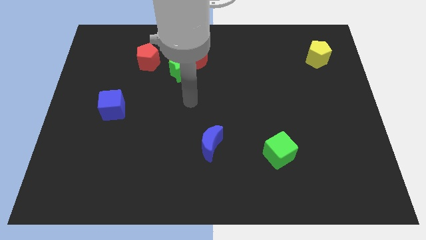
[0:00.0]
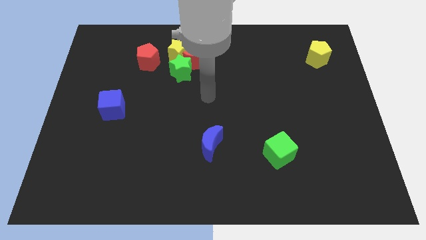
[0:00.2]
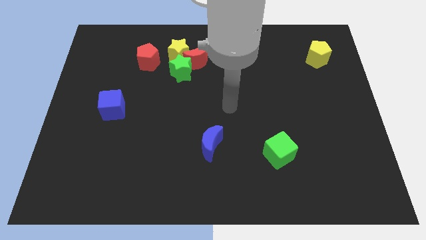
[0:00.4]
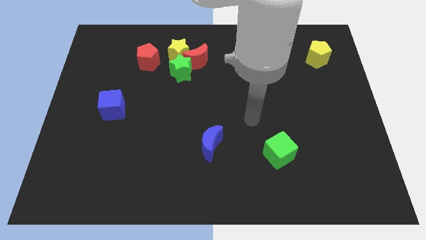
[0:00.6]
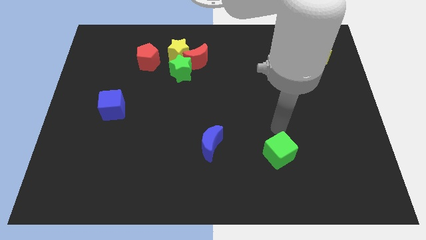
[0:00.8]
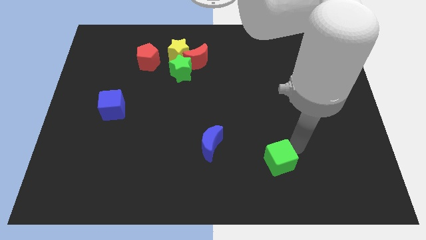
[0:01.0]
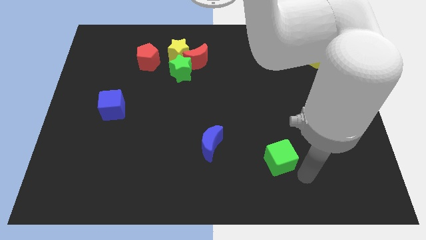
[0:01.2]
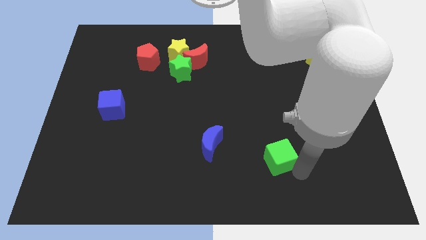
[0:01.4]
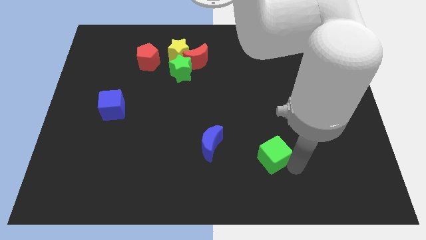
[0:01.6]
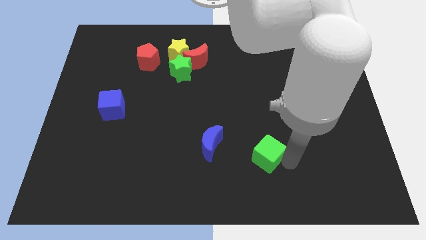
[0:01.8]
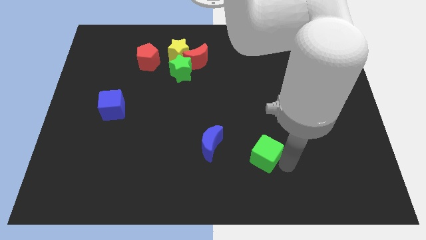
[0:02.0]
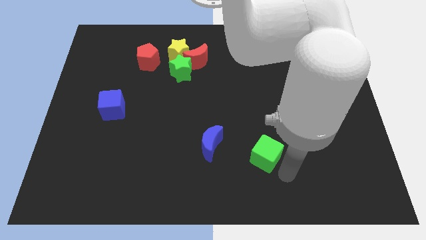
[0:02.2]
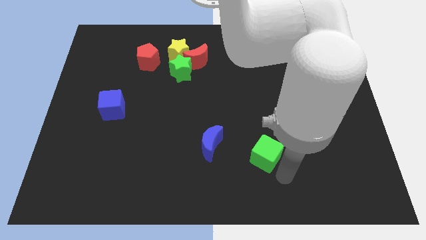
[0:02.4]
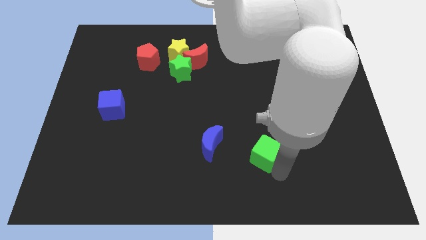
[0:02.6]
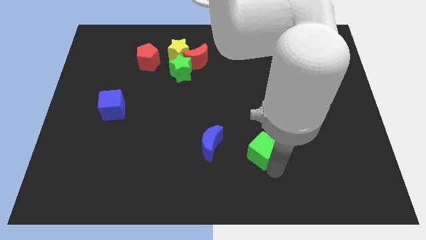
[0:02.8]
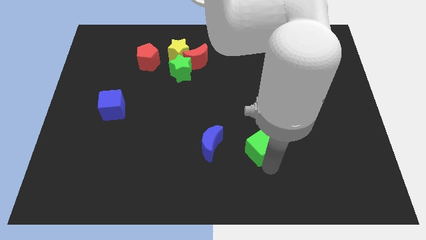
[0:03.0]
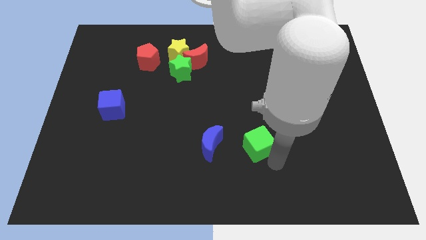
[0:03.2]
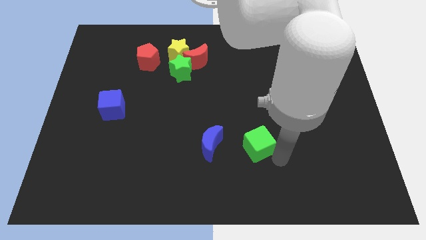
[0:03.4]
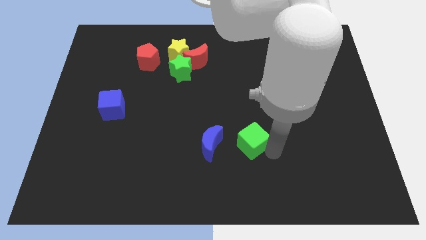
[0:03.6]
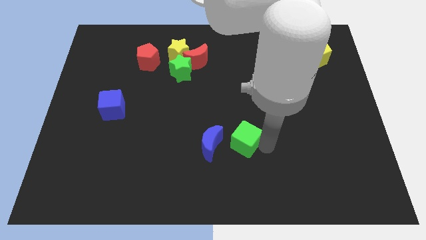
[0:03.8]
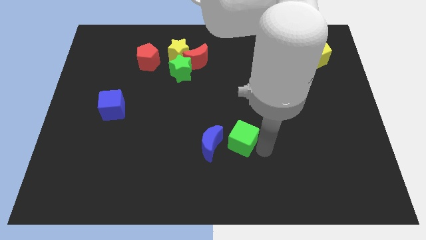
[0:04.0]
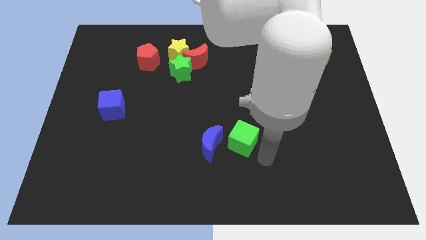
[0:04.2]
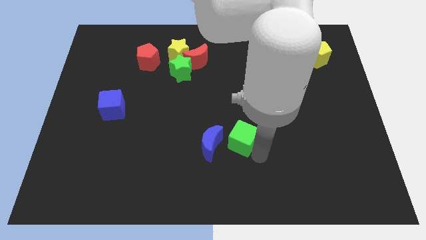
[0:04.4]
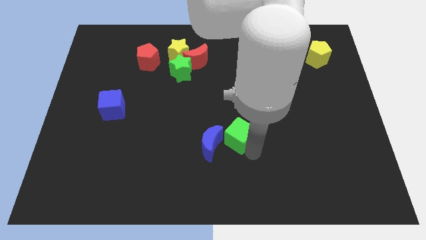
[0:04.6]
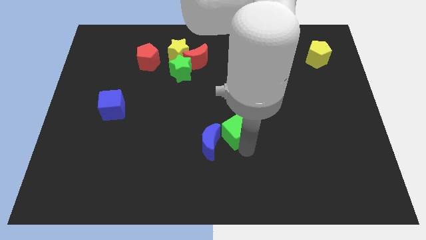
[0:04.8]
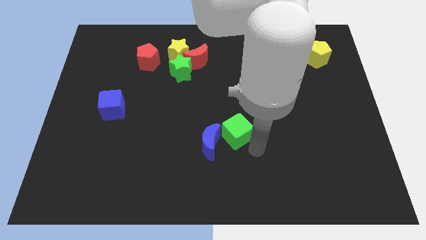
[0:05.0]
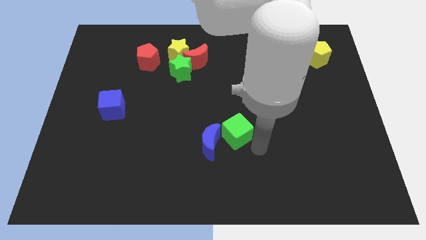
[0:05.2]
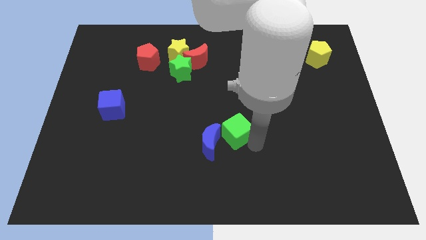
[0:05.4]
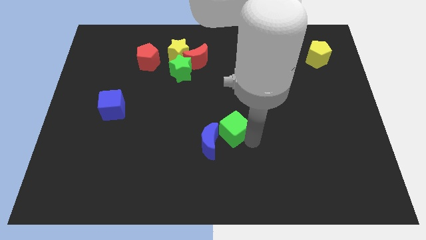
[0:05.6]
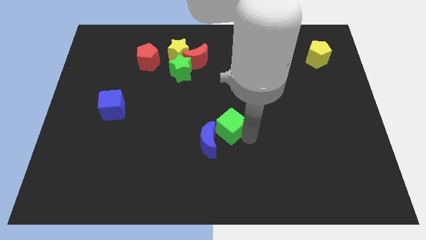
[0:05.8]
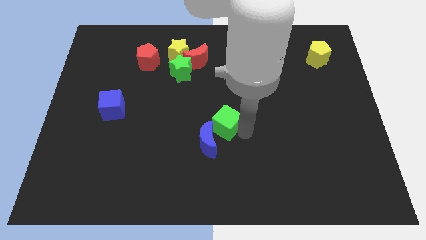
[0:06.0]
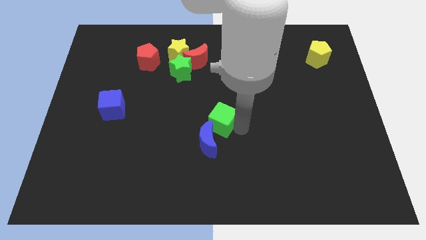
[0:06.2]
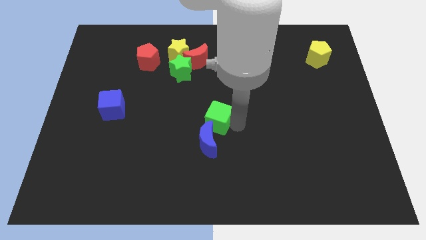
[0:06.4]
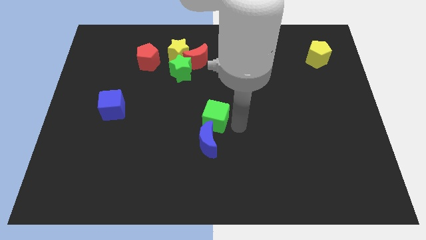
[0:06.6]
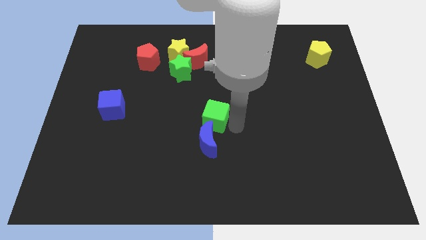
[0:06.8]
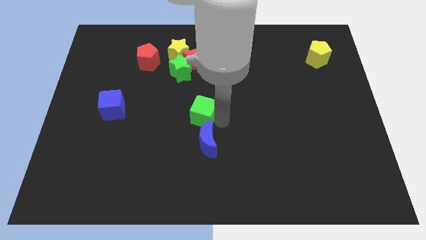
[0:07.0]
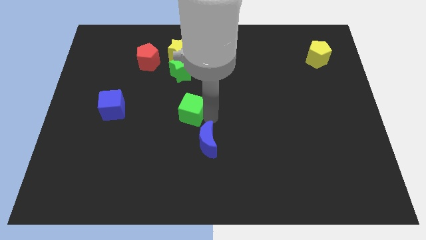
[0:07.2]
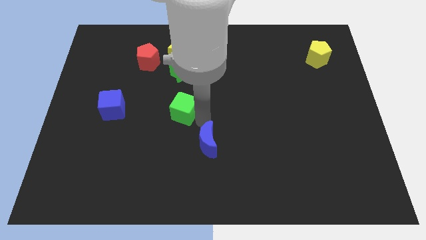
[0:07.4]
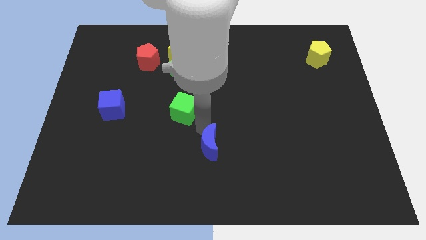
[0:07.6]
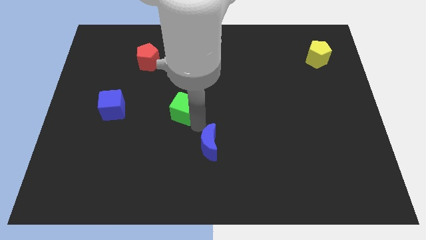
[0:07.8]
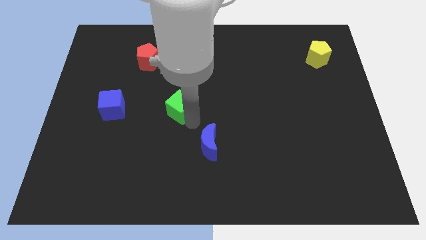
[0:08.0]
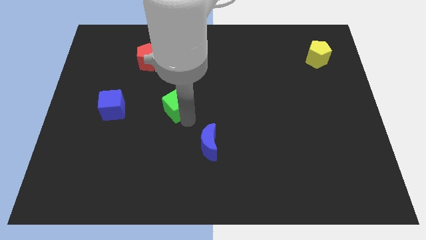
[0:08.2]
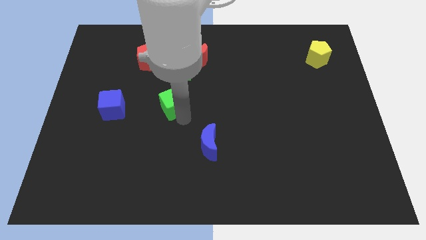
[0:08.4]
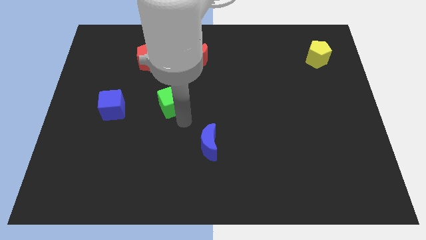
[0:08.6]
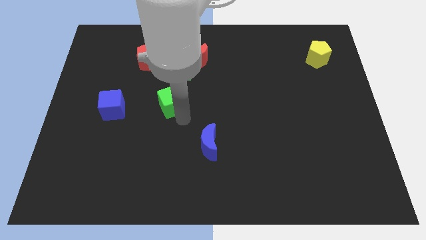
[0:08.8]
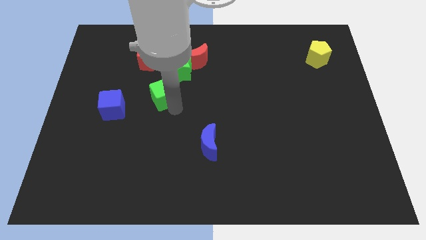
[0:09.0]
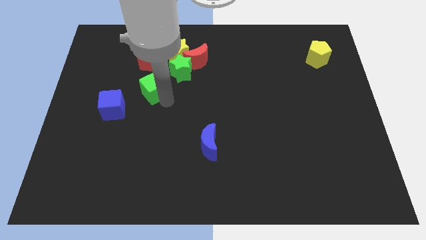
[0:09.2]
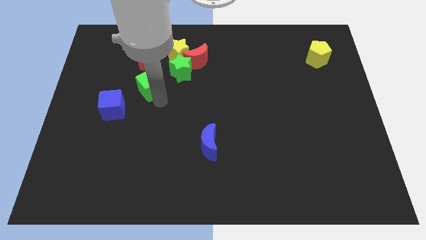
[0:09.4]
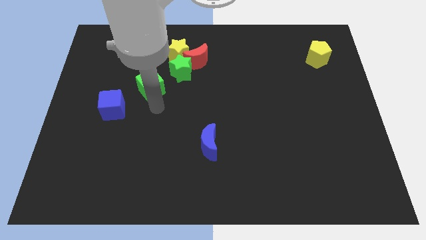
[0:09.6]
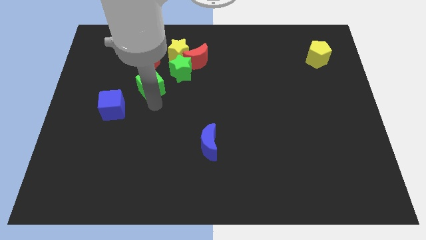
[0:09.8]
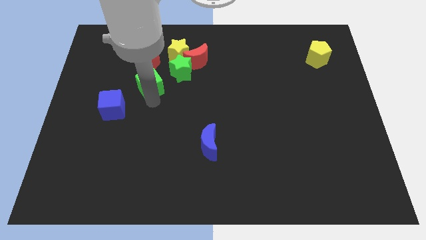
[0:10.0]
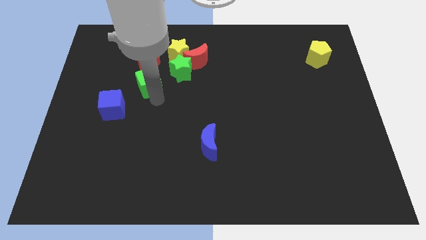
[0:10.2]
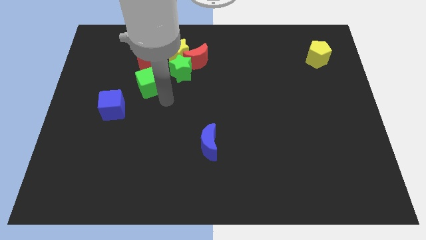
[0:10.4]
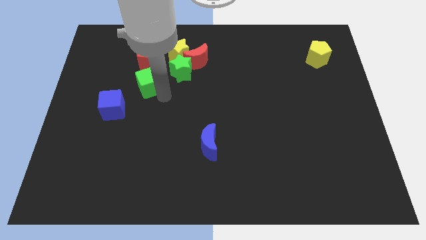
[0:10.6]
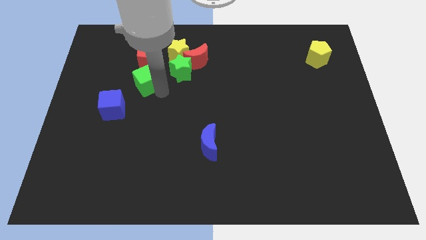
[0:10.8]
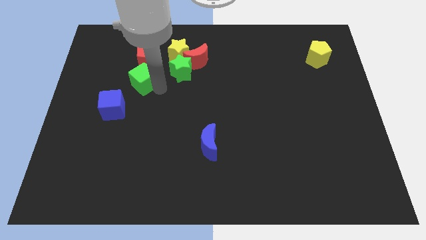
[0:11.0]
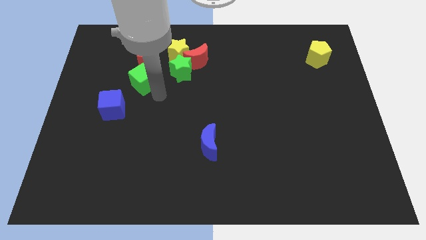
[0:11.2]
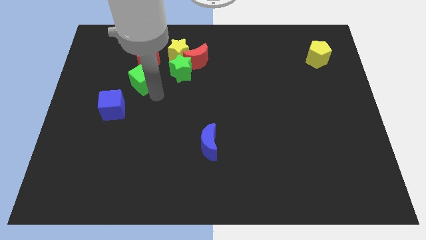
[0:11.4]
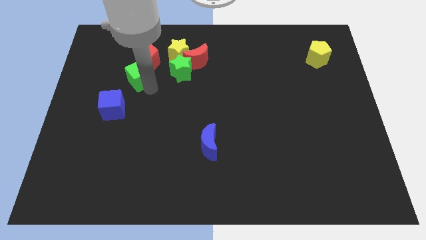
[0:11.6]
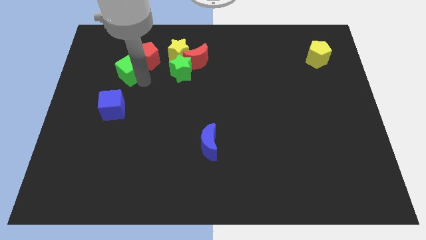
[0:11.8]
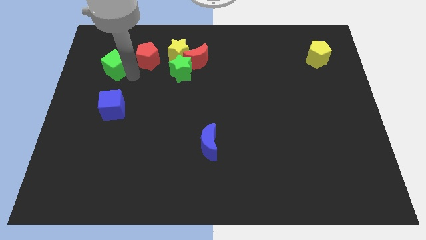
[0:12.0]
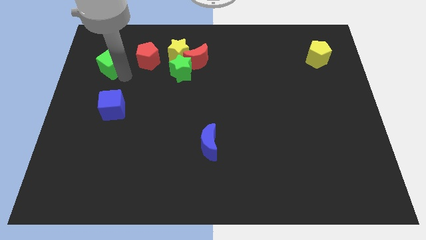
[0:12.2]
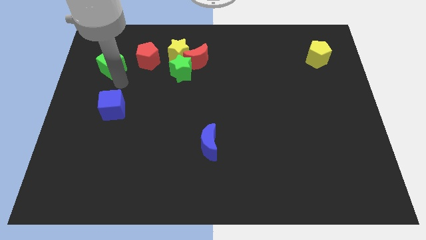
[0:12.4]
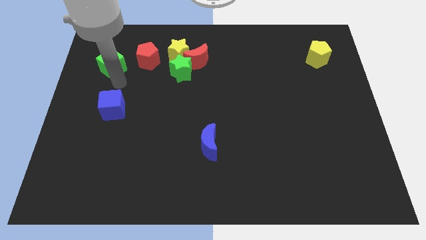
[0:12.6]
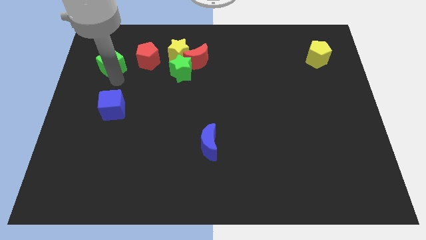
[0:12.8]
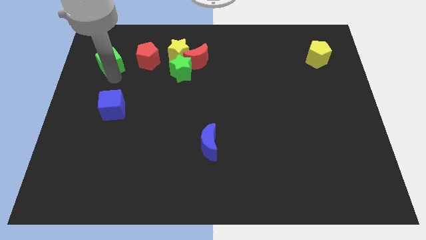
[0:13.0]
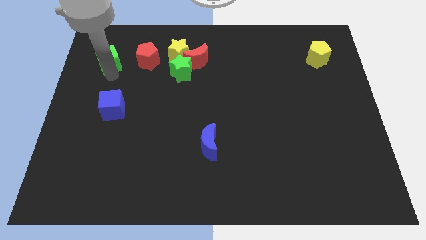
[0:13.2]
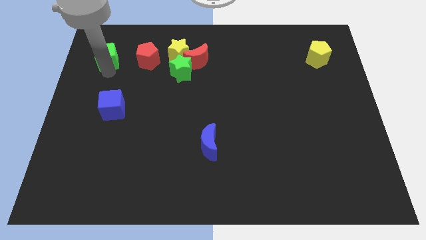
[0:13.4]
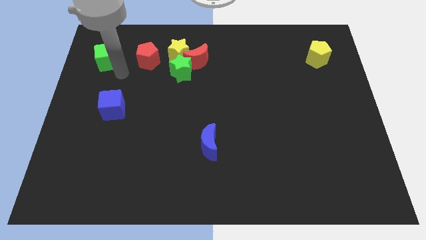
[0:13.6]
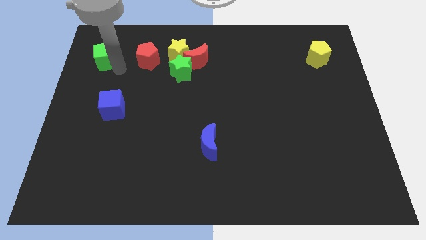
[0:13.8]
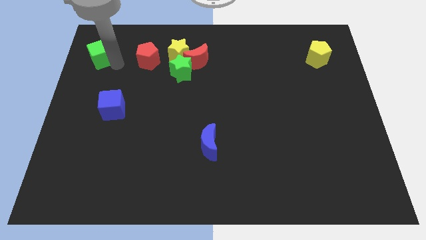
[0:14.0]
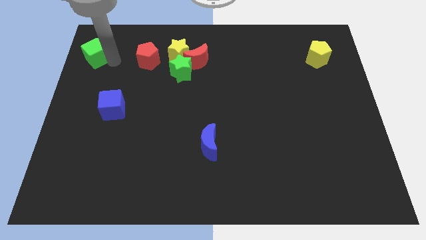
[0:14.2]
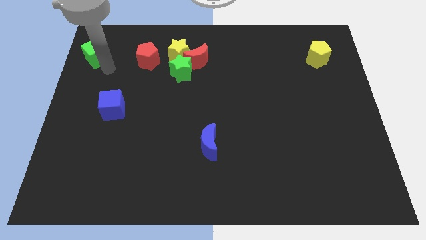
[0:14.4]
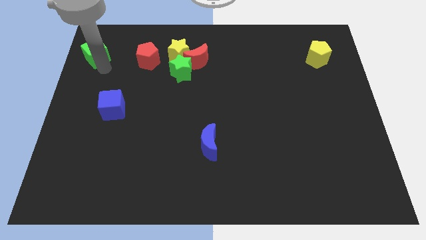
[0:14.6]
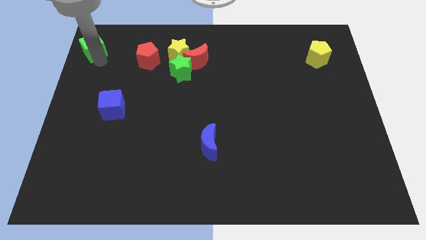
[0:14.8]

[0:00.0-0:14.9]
slide the green cube to the upper left corner
